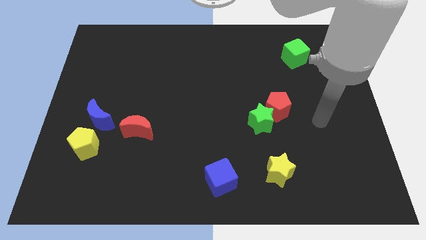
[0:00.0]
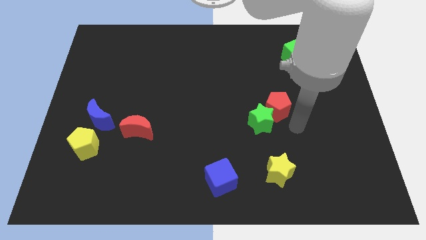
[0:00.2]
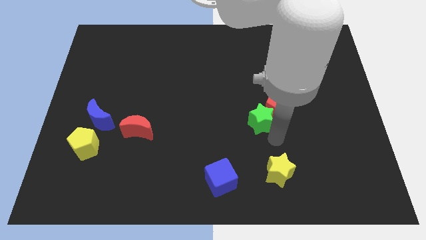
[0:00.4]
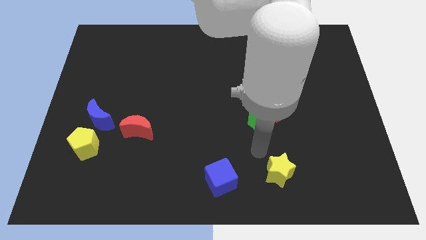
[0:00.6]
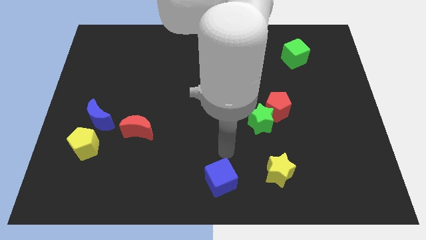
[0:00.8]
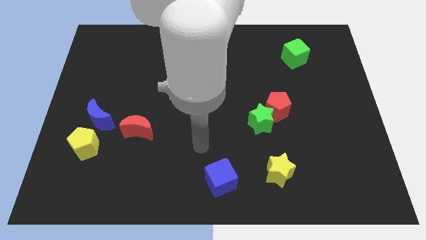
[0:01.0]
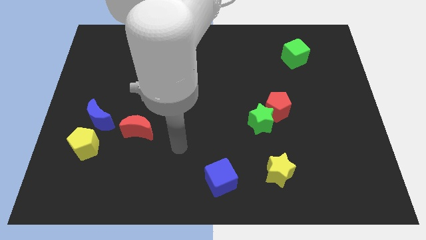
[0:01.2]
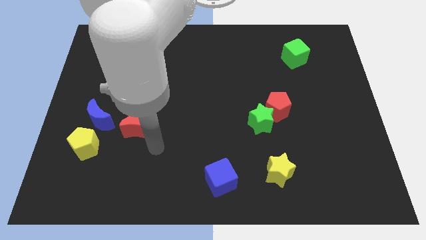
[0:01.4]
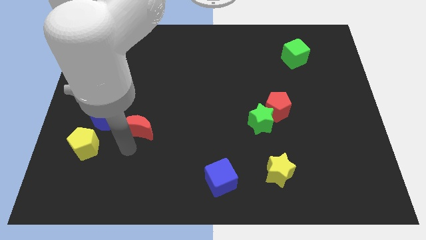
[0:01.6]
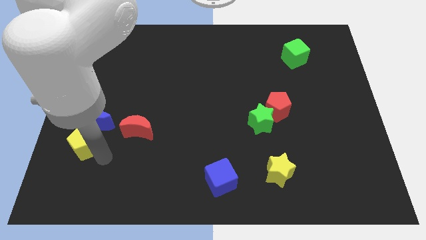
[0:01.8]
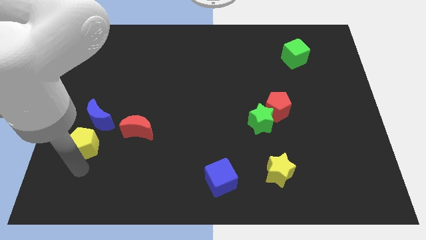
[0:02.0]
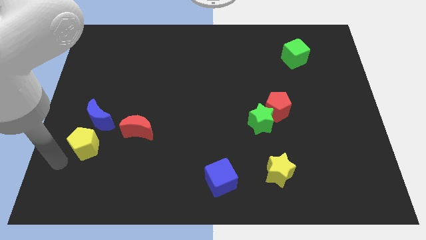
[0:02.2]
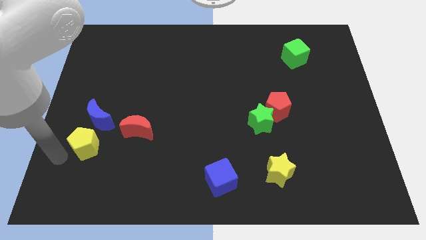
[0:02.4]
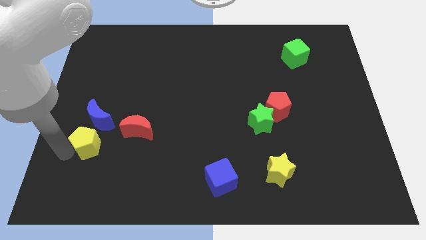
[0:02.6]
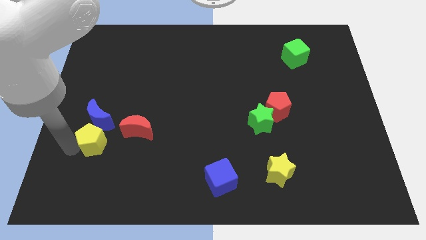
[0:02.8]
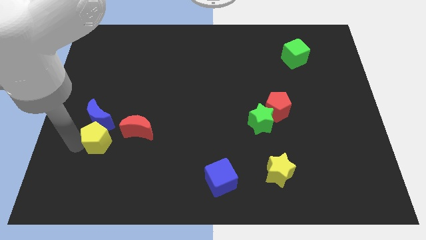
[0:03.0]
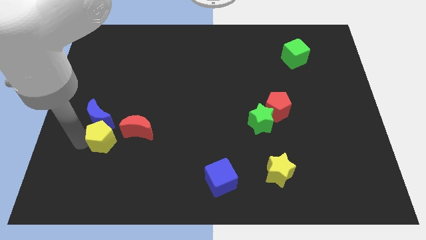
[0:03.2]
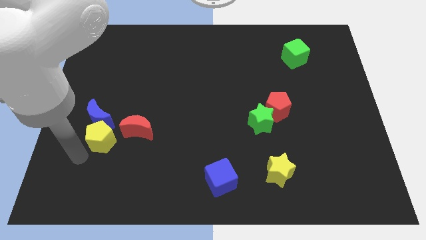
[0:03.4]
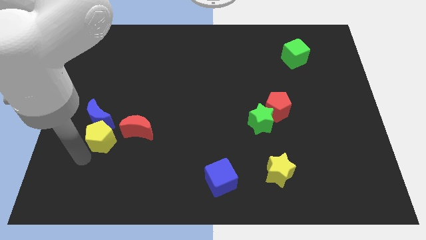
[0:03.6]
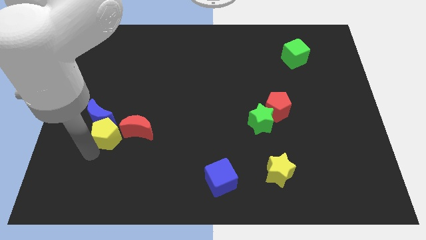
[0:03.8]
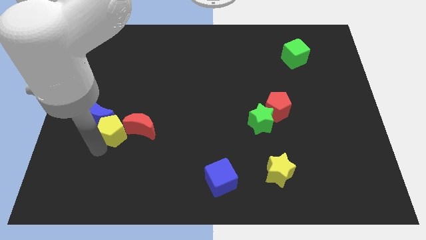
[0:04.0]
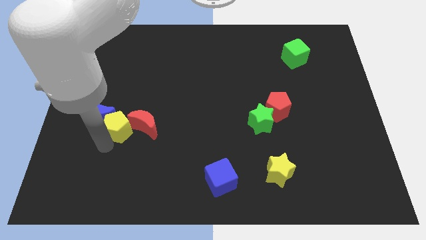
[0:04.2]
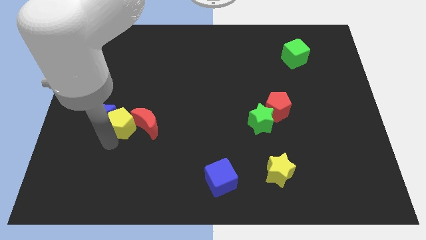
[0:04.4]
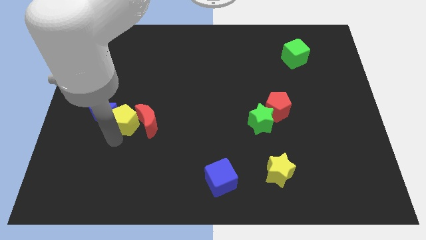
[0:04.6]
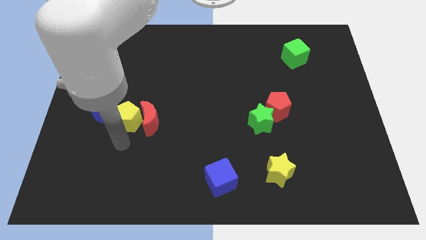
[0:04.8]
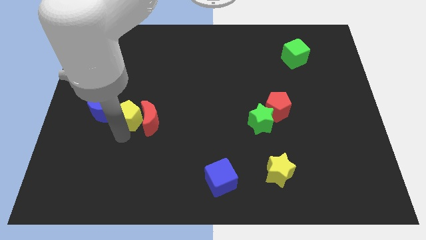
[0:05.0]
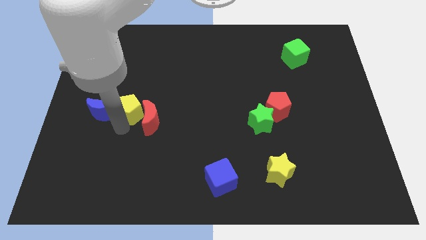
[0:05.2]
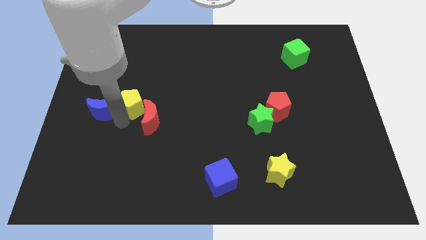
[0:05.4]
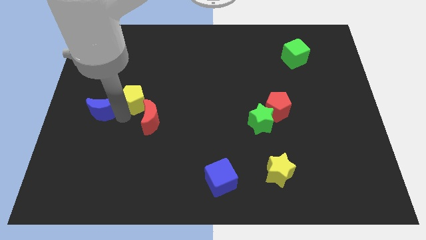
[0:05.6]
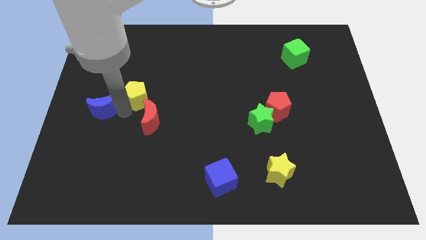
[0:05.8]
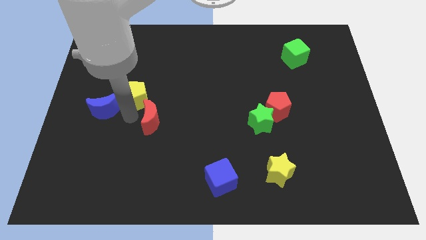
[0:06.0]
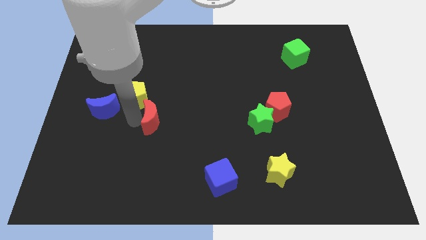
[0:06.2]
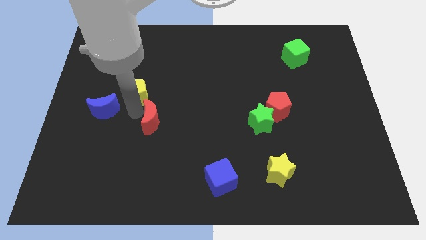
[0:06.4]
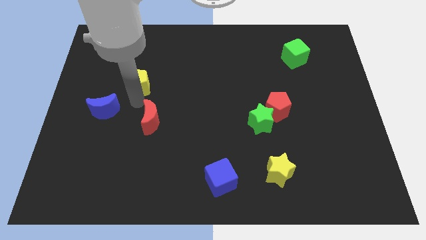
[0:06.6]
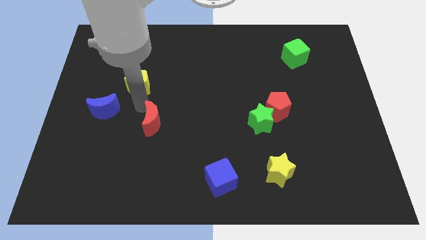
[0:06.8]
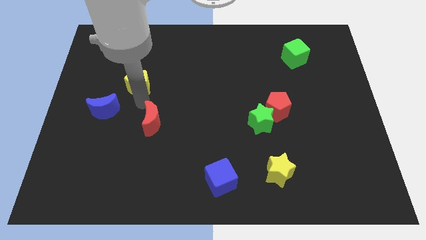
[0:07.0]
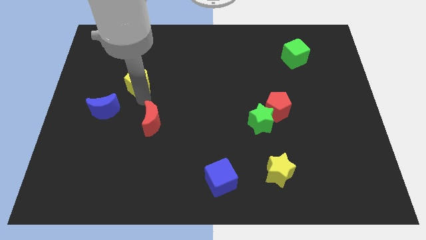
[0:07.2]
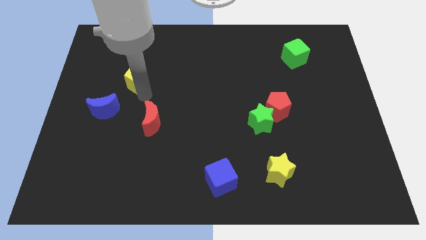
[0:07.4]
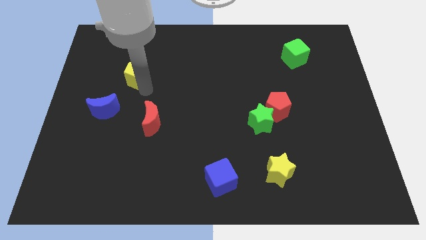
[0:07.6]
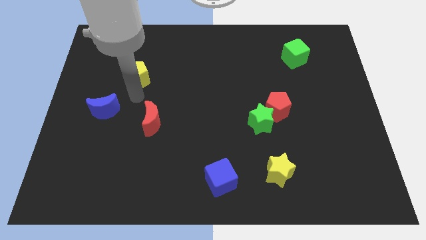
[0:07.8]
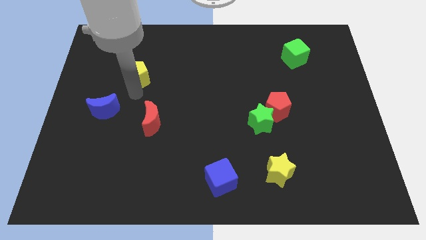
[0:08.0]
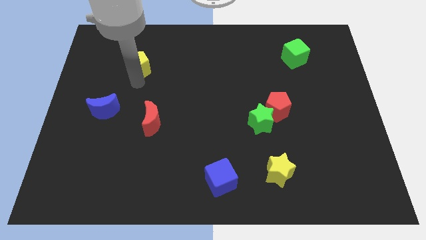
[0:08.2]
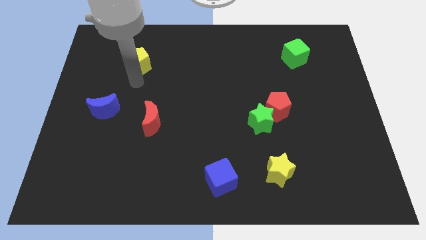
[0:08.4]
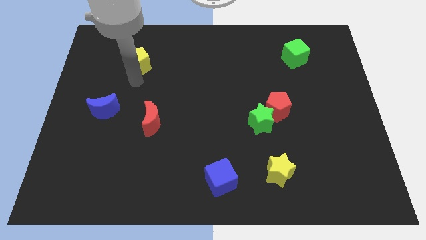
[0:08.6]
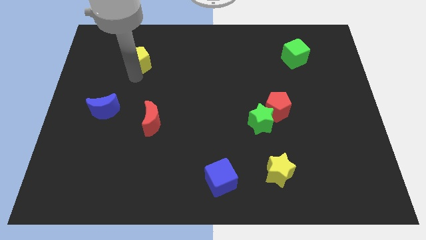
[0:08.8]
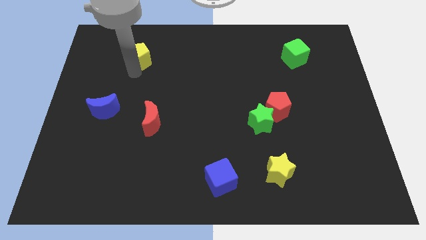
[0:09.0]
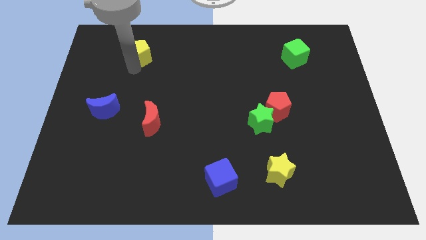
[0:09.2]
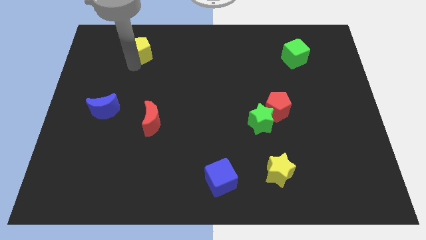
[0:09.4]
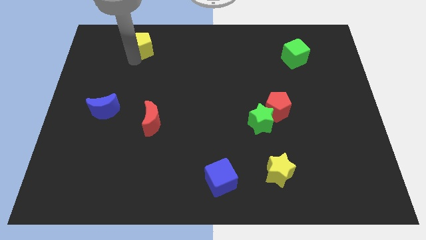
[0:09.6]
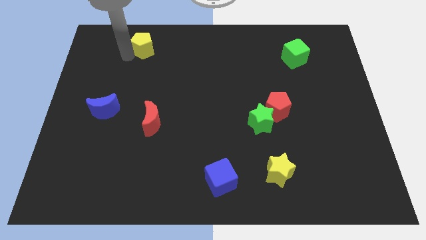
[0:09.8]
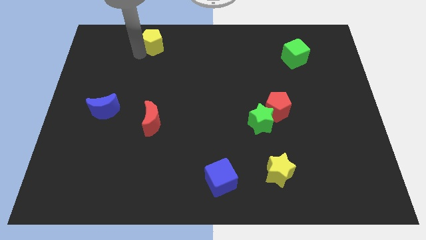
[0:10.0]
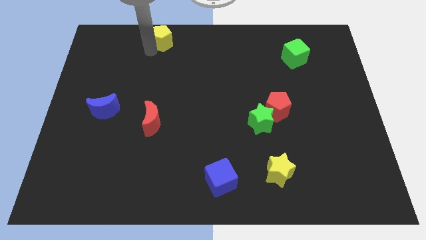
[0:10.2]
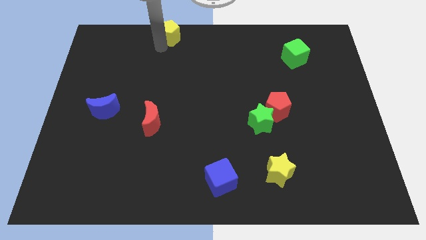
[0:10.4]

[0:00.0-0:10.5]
push the yellow pentagon to the top side

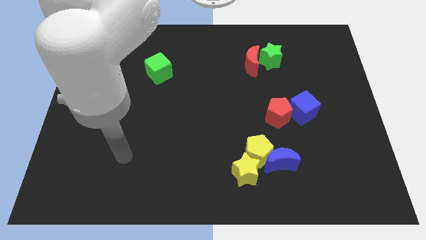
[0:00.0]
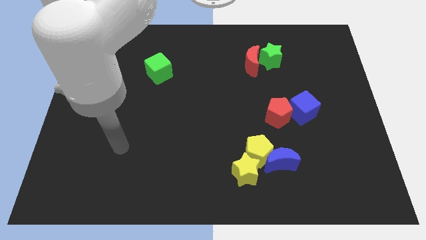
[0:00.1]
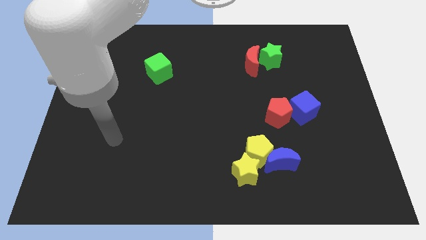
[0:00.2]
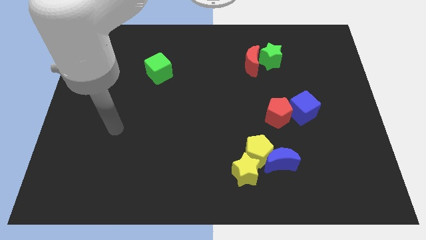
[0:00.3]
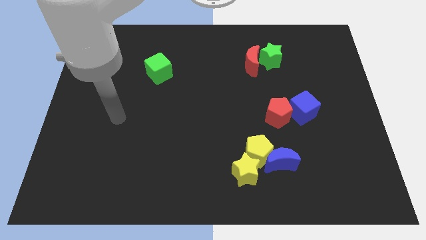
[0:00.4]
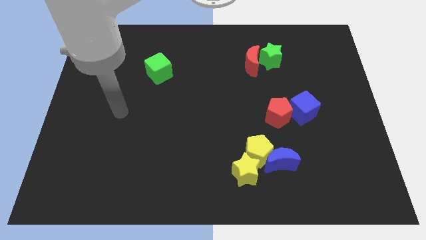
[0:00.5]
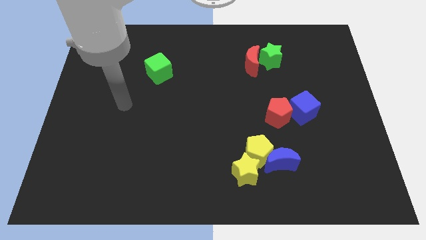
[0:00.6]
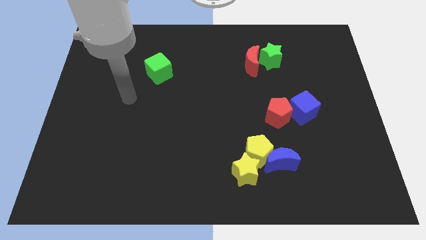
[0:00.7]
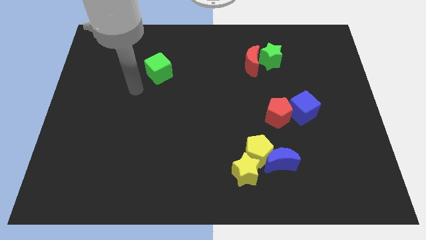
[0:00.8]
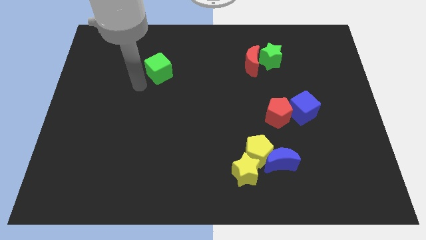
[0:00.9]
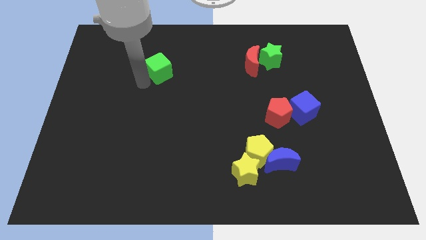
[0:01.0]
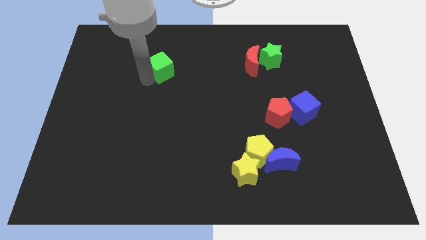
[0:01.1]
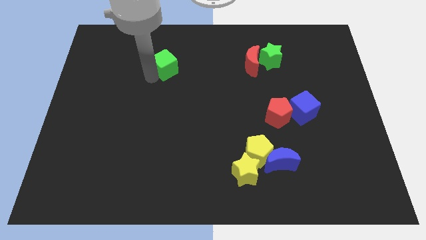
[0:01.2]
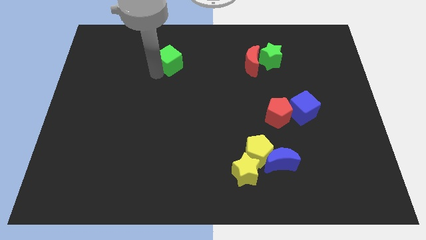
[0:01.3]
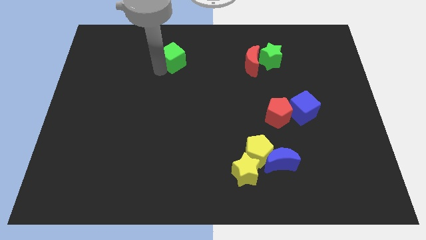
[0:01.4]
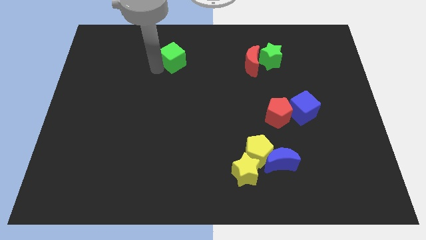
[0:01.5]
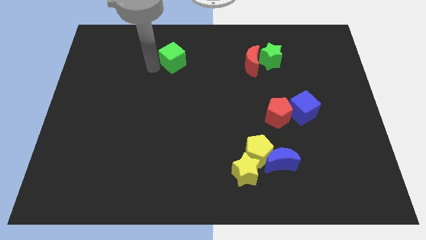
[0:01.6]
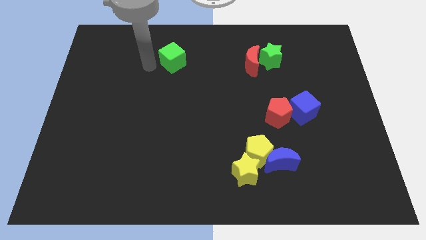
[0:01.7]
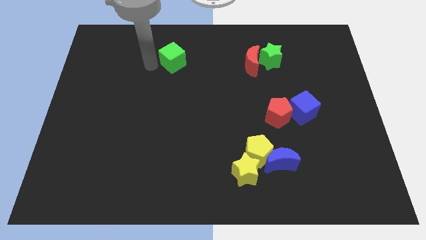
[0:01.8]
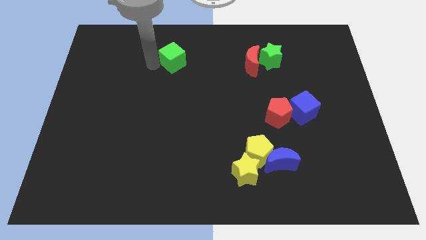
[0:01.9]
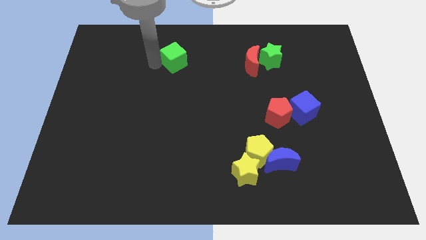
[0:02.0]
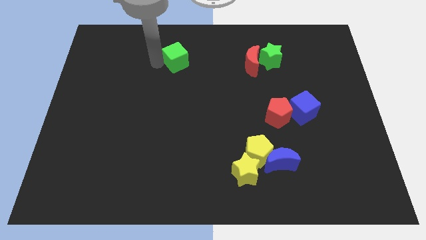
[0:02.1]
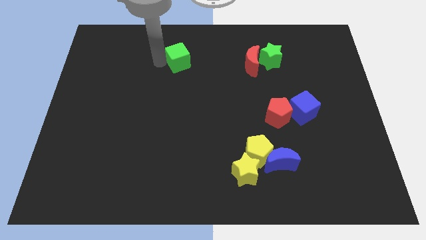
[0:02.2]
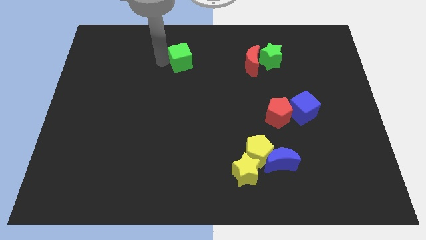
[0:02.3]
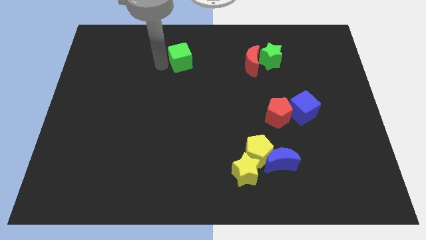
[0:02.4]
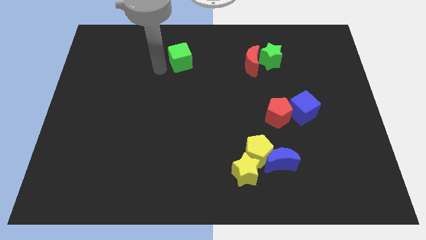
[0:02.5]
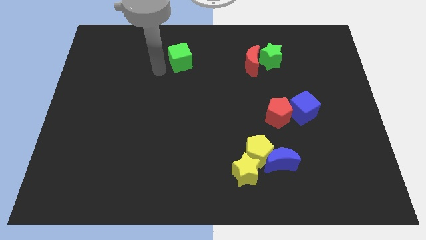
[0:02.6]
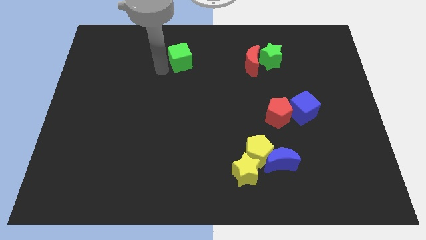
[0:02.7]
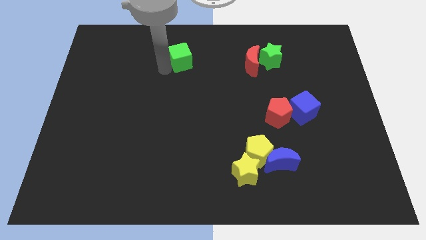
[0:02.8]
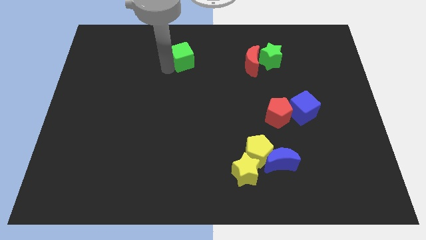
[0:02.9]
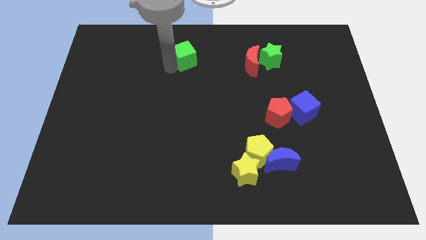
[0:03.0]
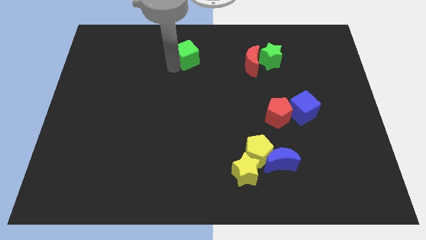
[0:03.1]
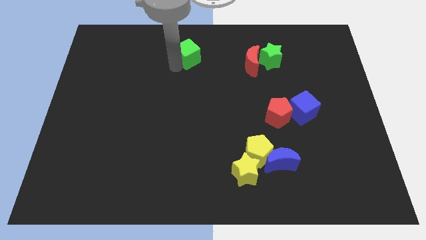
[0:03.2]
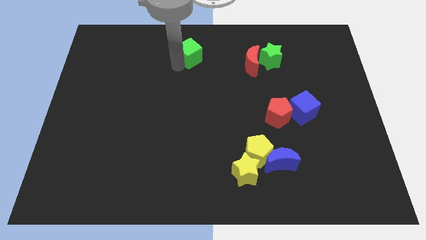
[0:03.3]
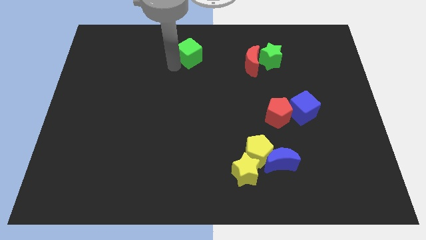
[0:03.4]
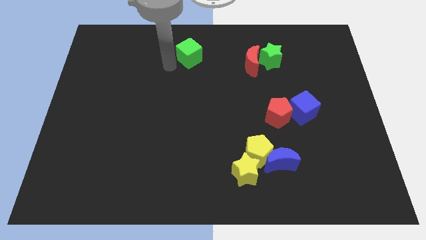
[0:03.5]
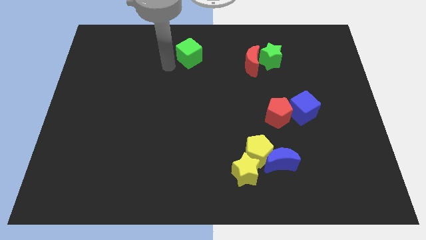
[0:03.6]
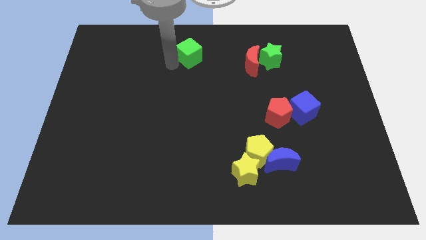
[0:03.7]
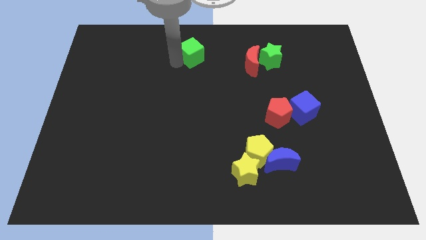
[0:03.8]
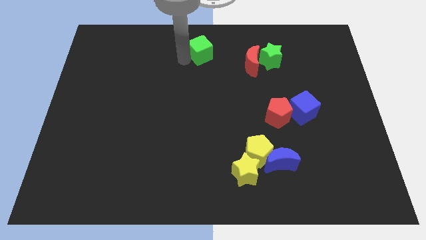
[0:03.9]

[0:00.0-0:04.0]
slide the green cube to the top
